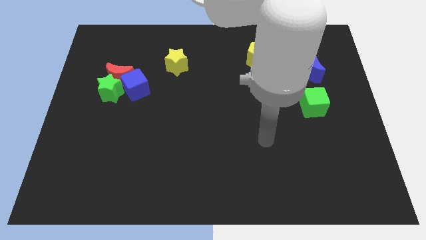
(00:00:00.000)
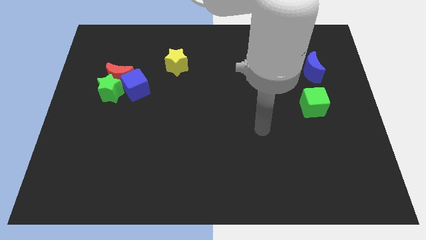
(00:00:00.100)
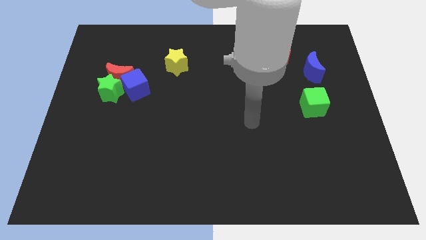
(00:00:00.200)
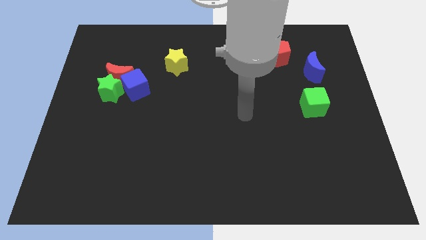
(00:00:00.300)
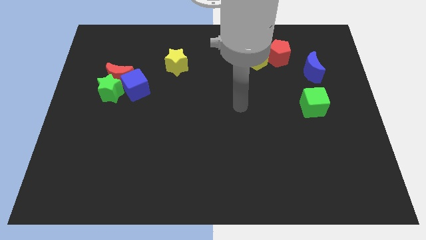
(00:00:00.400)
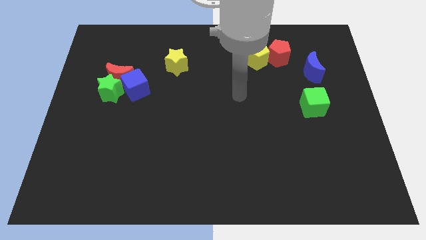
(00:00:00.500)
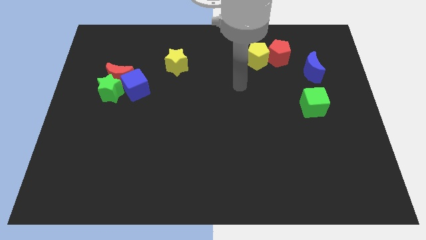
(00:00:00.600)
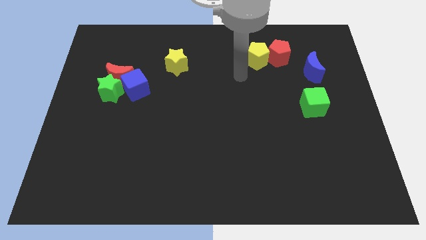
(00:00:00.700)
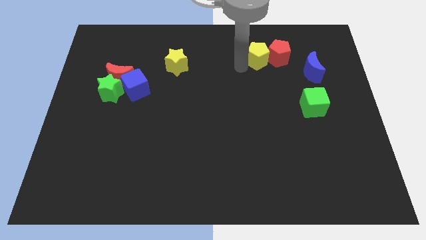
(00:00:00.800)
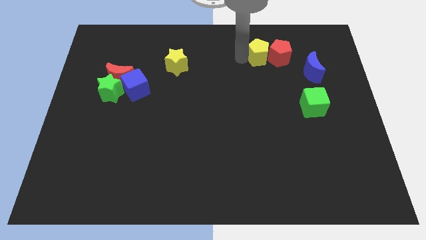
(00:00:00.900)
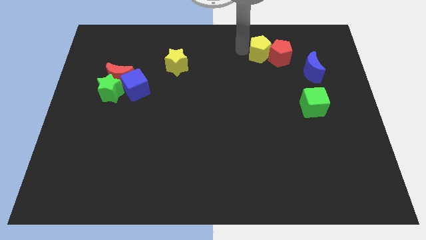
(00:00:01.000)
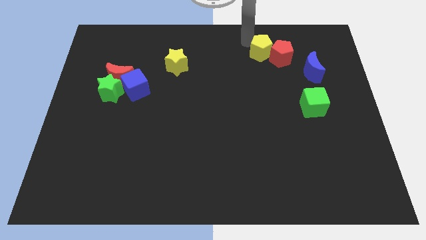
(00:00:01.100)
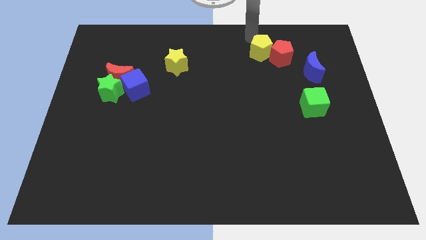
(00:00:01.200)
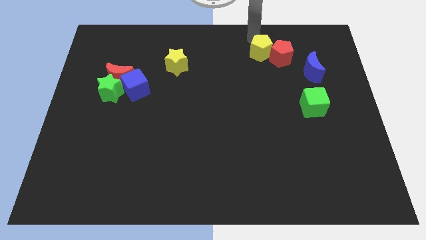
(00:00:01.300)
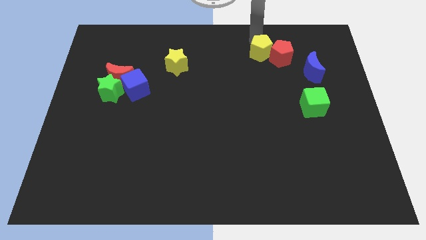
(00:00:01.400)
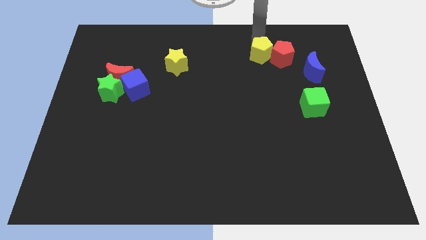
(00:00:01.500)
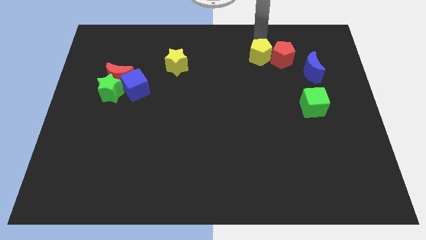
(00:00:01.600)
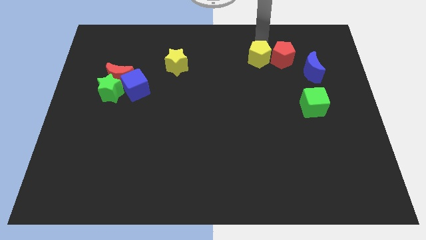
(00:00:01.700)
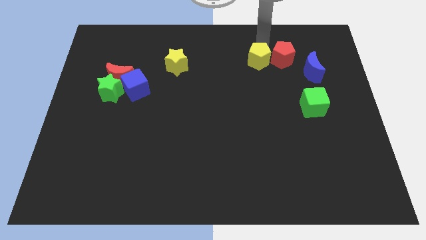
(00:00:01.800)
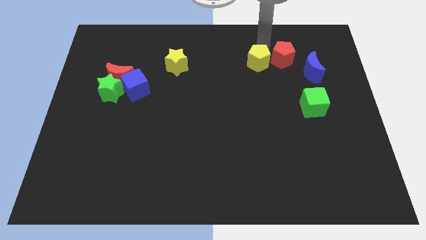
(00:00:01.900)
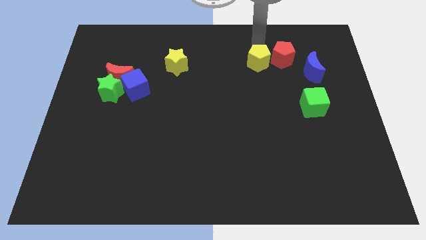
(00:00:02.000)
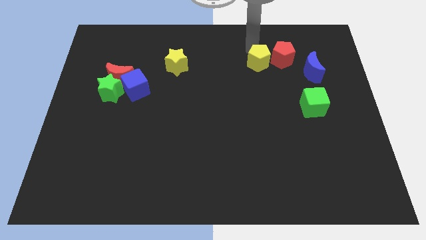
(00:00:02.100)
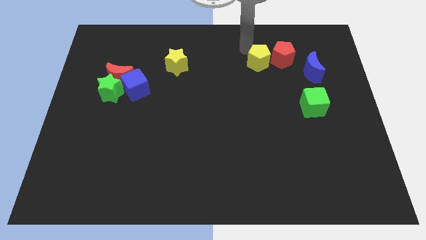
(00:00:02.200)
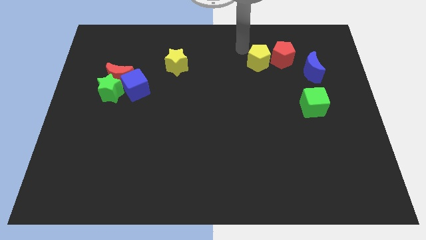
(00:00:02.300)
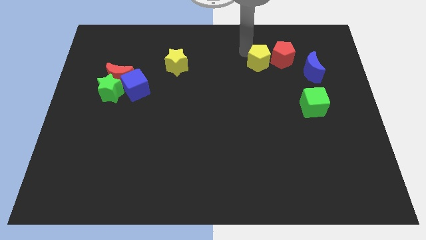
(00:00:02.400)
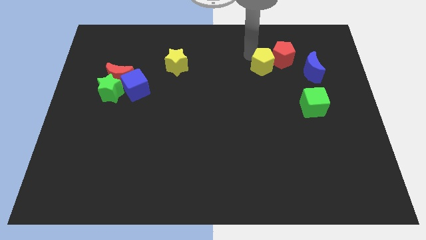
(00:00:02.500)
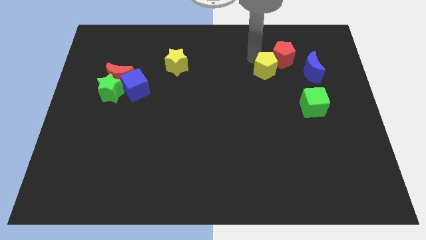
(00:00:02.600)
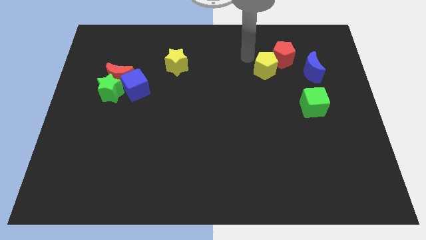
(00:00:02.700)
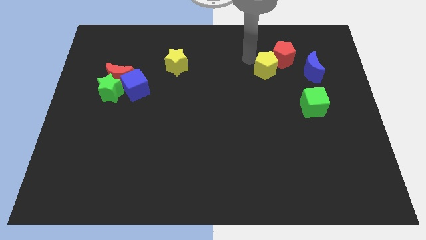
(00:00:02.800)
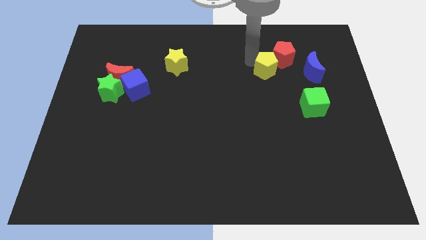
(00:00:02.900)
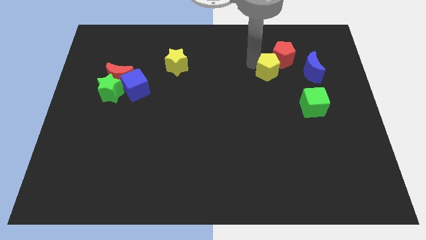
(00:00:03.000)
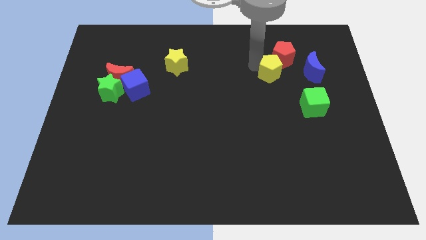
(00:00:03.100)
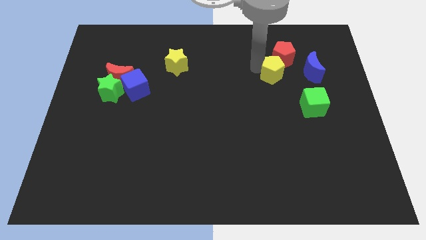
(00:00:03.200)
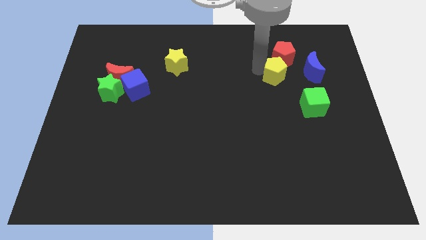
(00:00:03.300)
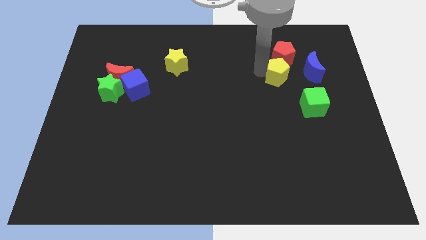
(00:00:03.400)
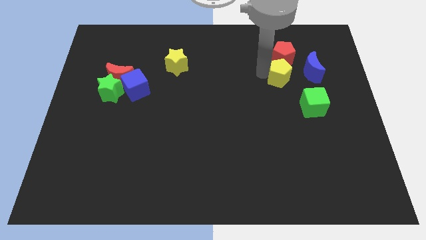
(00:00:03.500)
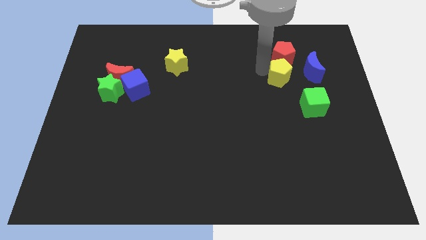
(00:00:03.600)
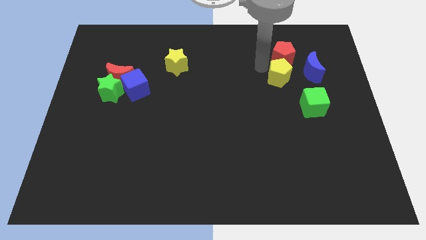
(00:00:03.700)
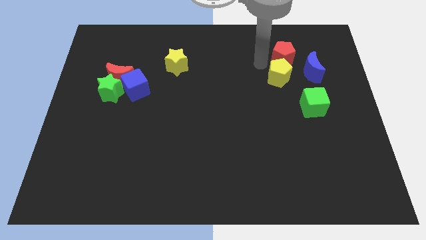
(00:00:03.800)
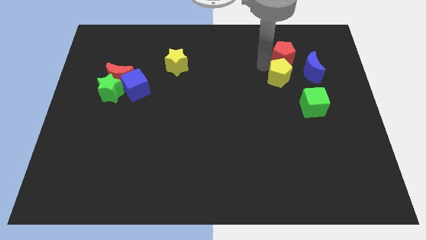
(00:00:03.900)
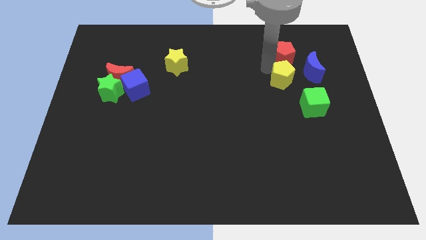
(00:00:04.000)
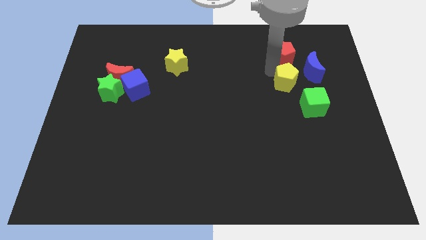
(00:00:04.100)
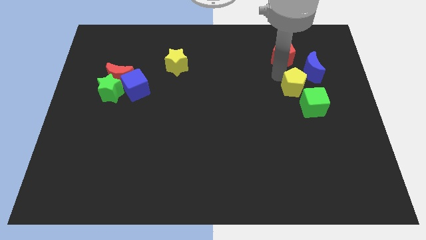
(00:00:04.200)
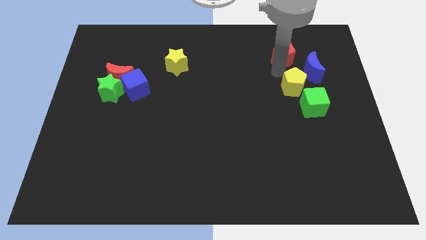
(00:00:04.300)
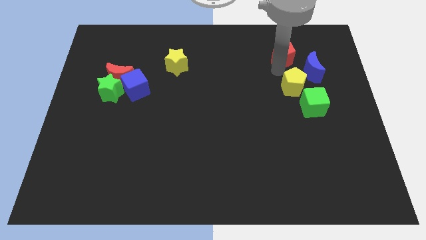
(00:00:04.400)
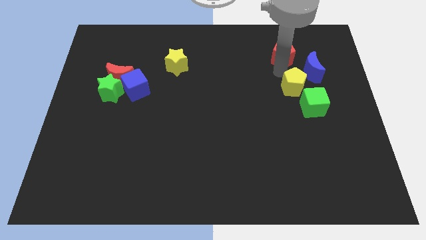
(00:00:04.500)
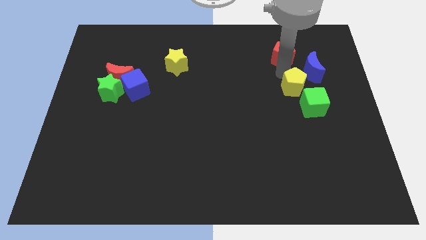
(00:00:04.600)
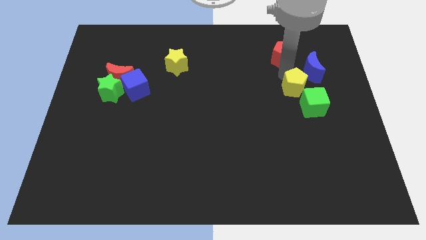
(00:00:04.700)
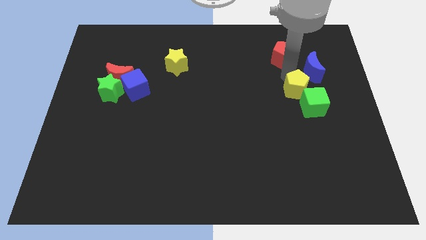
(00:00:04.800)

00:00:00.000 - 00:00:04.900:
push the yellow pentagon close to the green cube

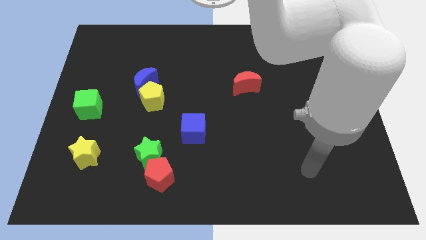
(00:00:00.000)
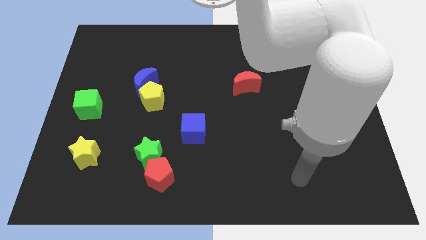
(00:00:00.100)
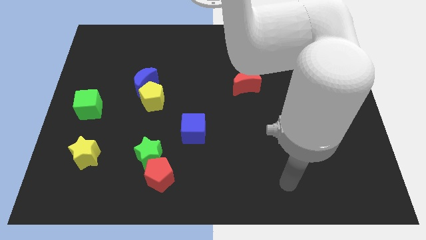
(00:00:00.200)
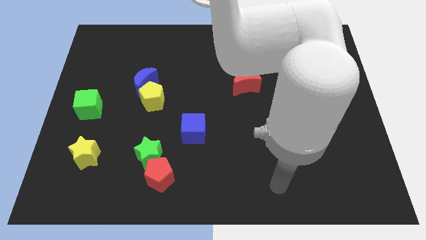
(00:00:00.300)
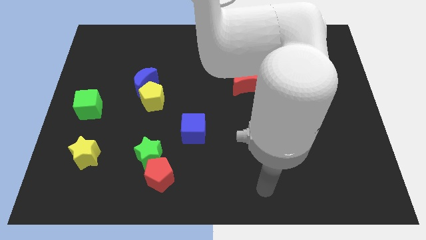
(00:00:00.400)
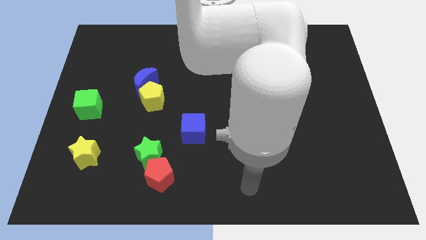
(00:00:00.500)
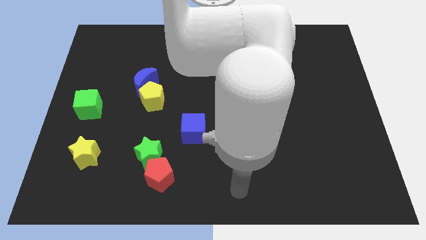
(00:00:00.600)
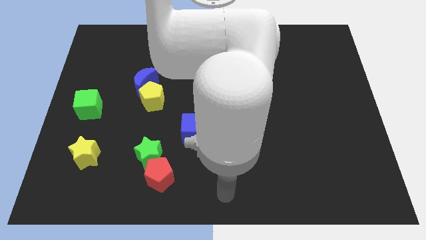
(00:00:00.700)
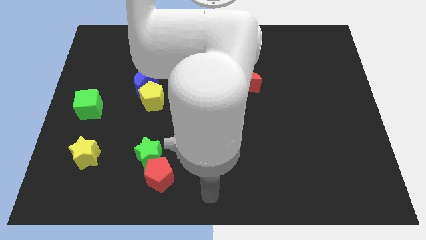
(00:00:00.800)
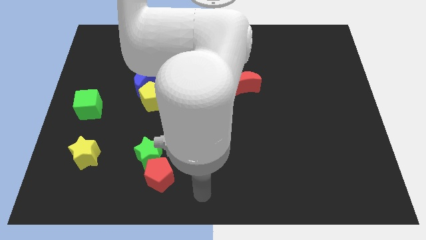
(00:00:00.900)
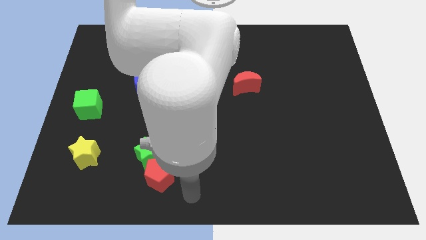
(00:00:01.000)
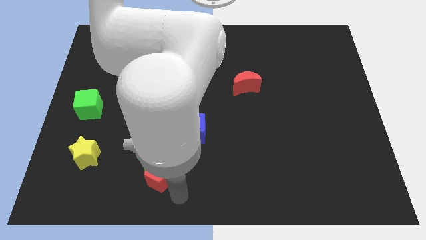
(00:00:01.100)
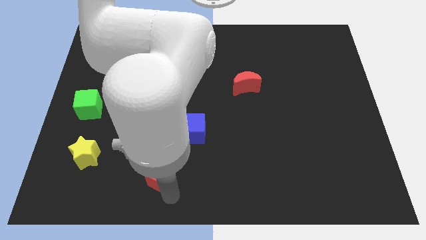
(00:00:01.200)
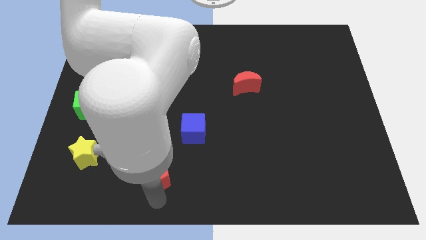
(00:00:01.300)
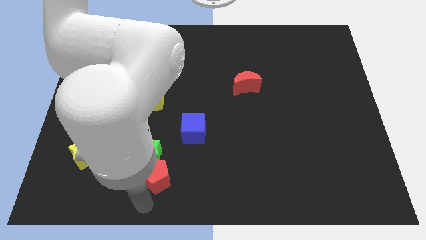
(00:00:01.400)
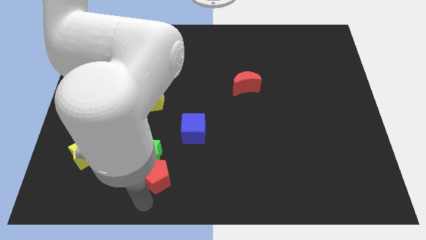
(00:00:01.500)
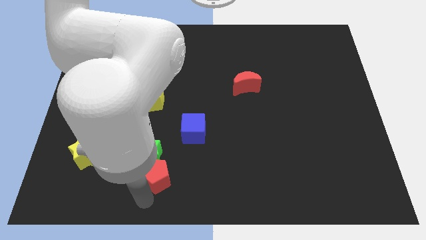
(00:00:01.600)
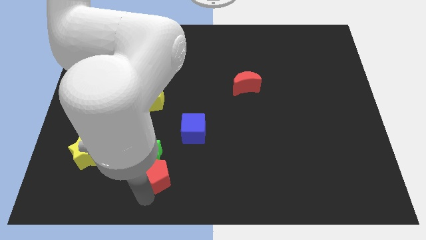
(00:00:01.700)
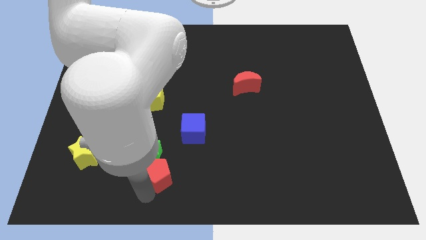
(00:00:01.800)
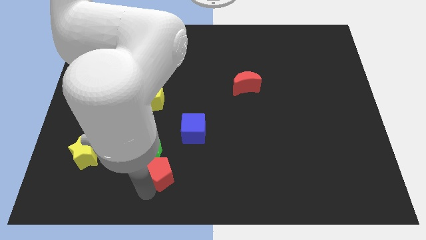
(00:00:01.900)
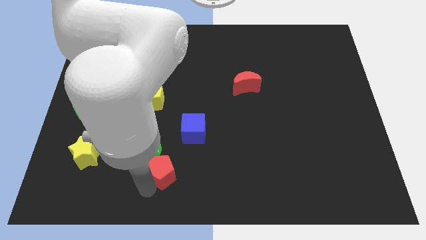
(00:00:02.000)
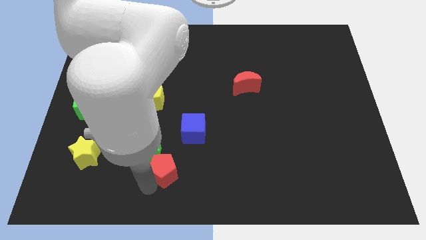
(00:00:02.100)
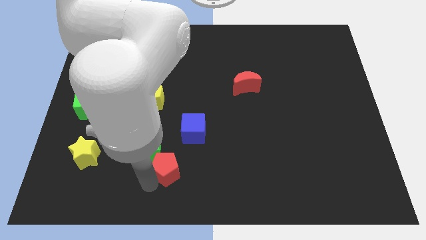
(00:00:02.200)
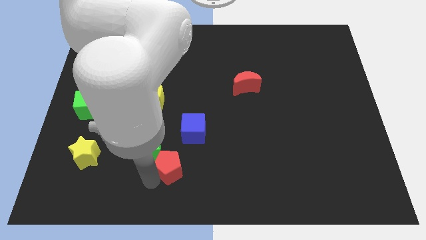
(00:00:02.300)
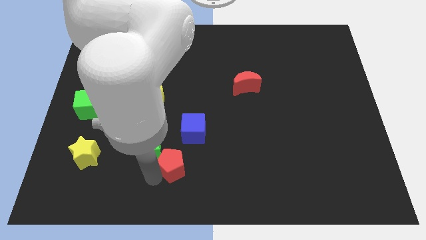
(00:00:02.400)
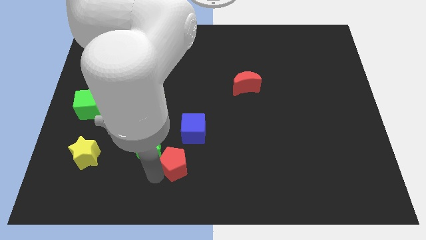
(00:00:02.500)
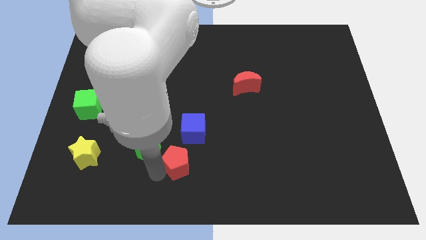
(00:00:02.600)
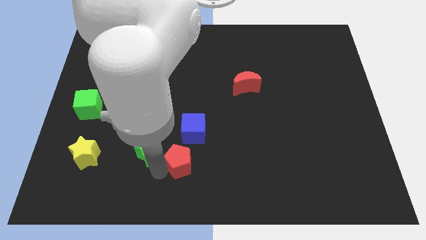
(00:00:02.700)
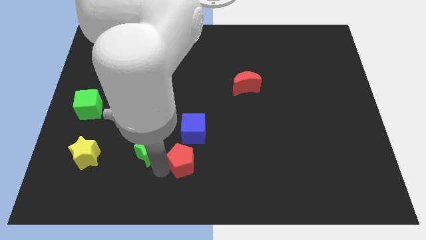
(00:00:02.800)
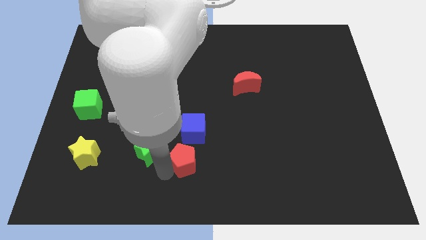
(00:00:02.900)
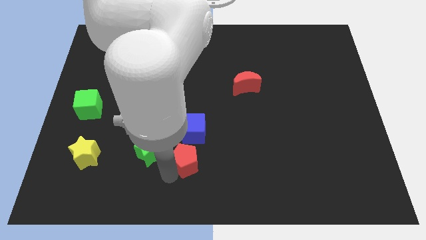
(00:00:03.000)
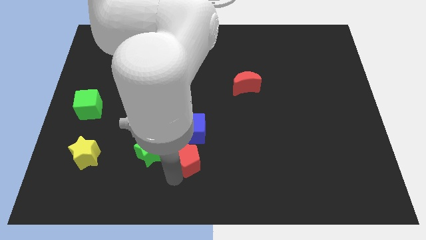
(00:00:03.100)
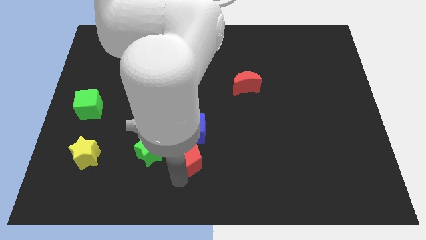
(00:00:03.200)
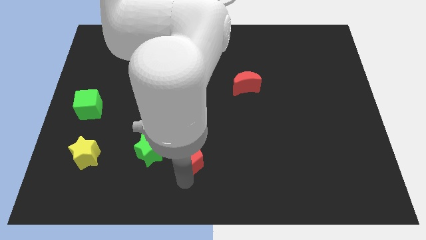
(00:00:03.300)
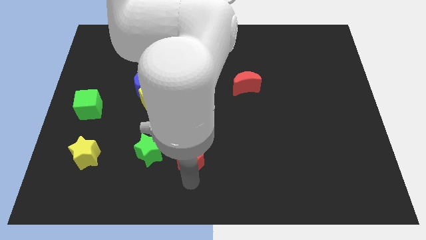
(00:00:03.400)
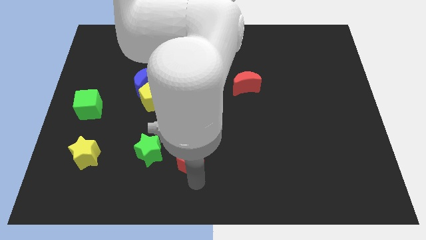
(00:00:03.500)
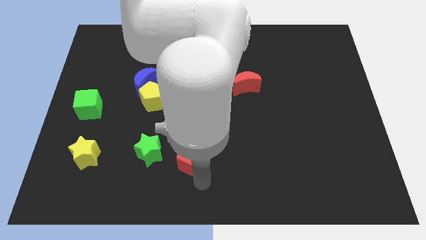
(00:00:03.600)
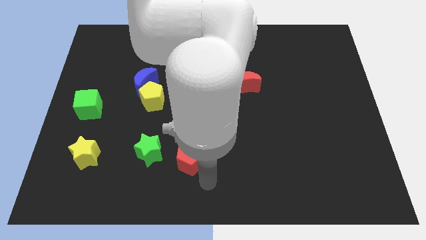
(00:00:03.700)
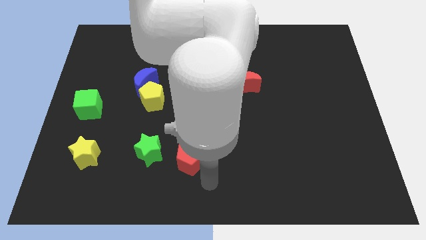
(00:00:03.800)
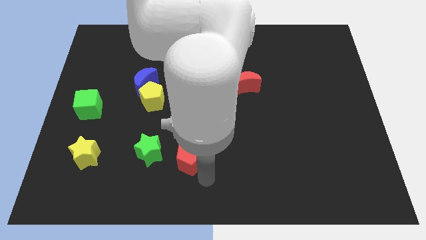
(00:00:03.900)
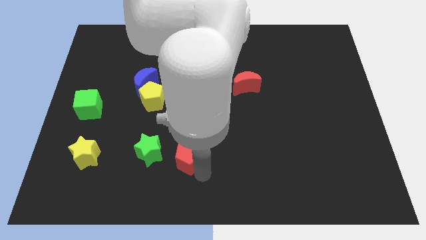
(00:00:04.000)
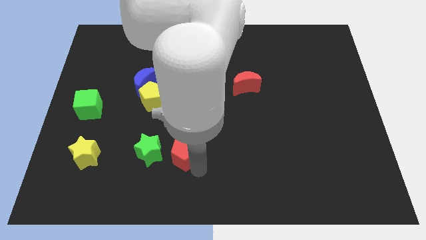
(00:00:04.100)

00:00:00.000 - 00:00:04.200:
move the red pentagon close to the blue cube
